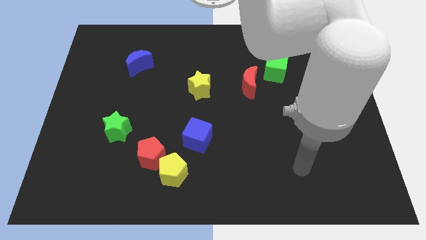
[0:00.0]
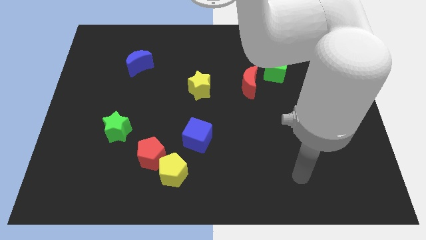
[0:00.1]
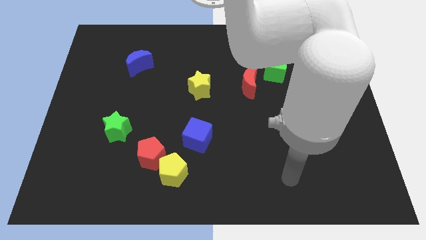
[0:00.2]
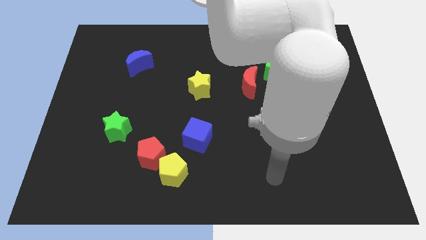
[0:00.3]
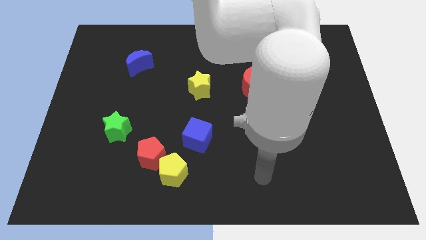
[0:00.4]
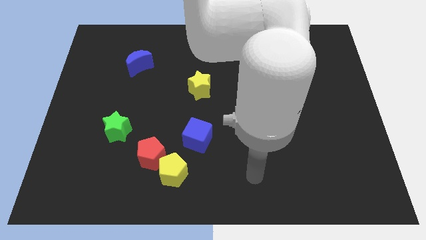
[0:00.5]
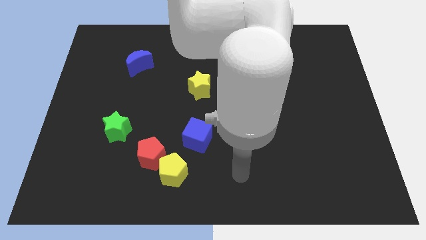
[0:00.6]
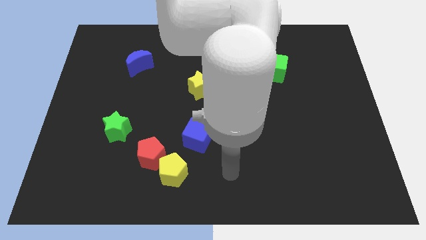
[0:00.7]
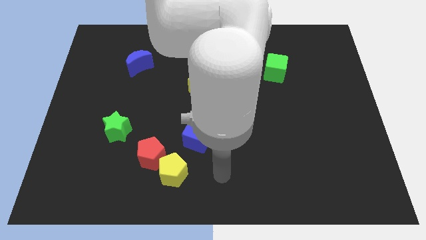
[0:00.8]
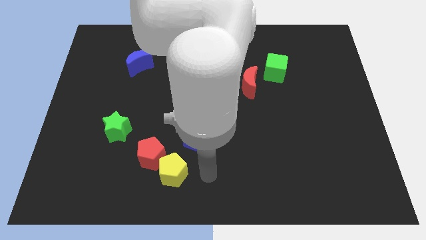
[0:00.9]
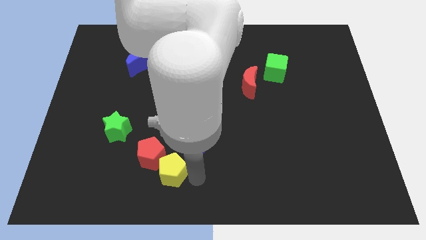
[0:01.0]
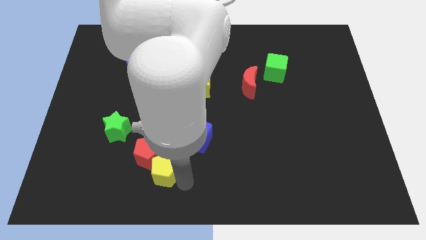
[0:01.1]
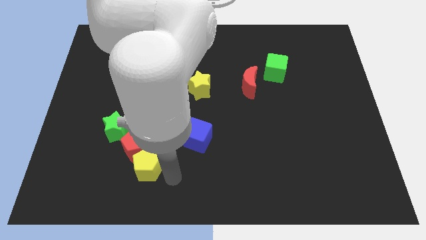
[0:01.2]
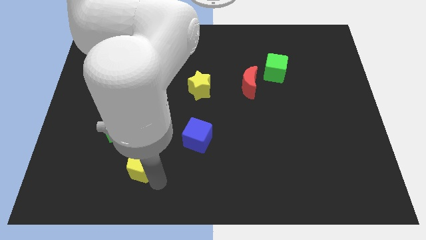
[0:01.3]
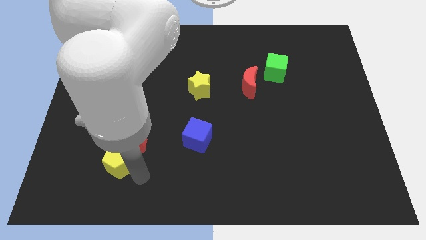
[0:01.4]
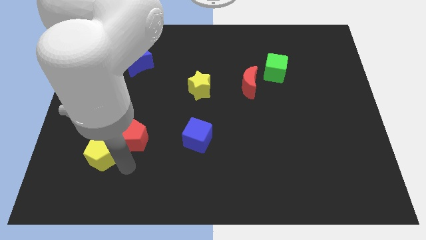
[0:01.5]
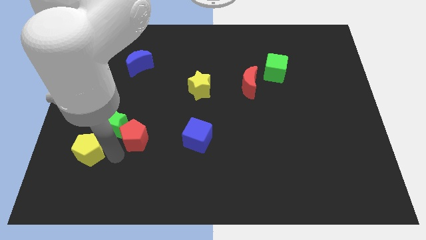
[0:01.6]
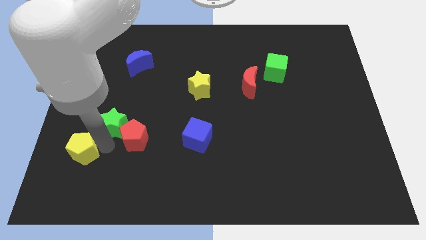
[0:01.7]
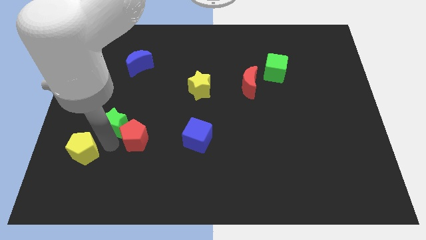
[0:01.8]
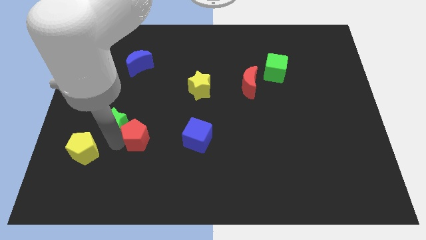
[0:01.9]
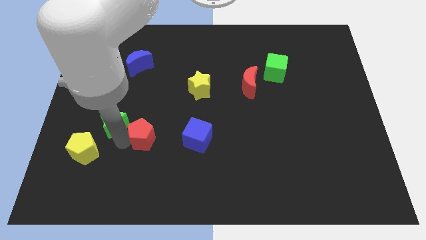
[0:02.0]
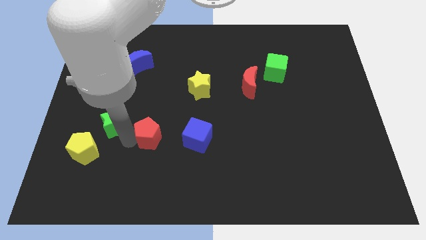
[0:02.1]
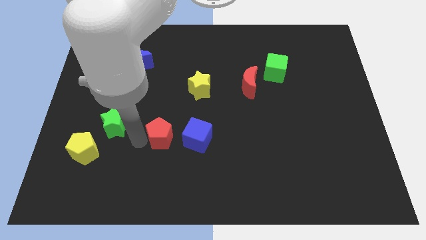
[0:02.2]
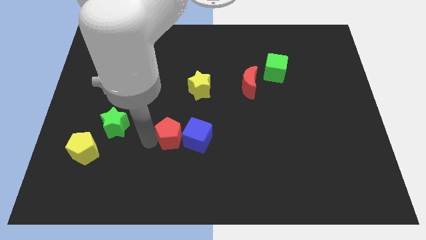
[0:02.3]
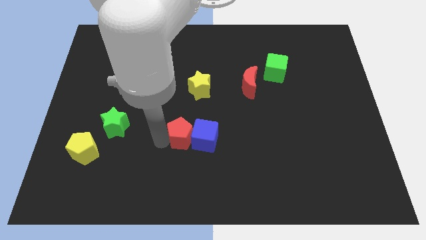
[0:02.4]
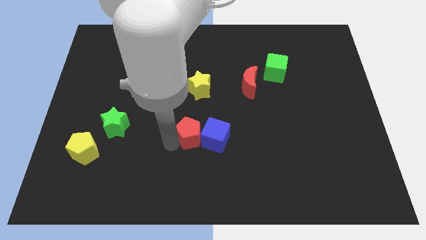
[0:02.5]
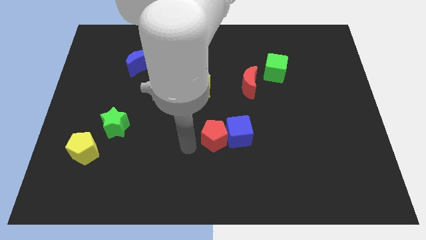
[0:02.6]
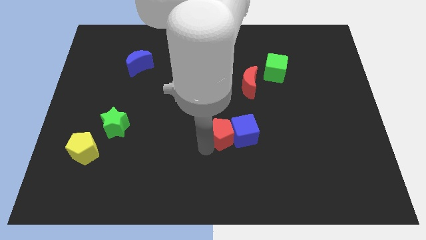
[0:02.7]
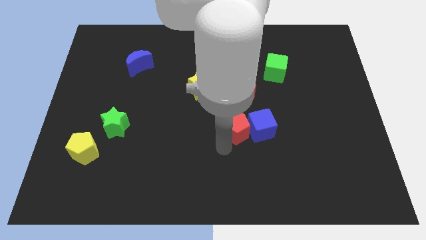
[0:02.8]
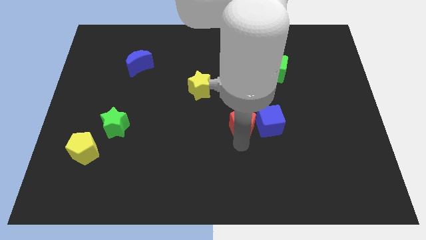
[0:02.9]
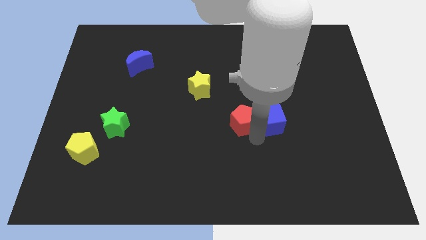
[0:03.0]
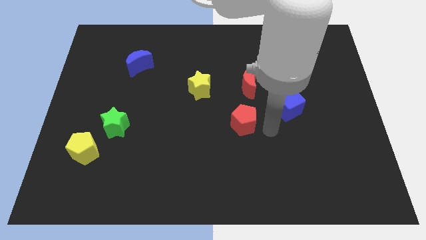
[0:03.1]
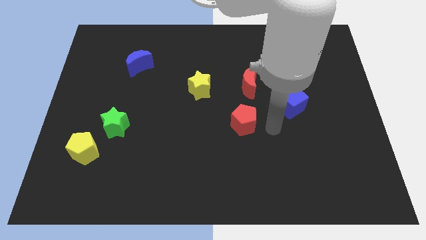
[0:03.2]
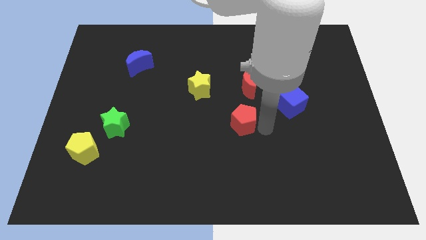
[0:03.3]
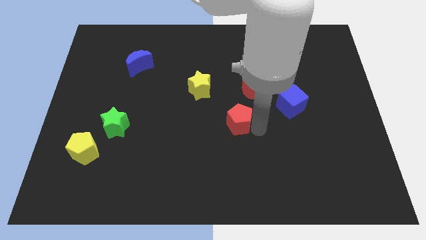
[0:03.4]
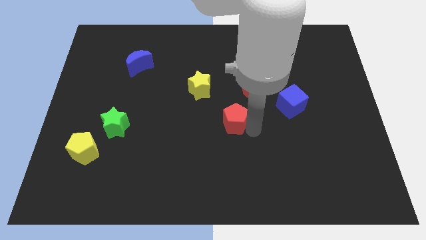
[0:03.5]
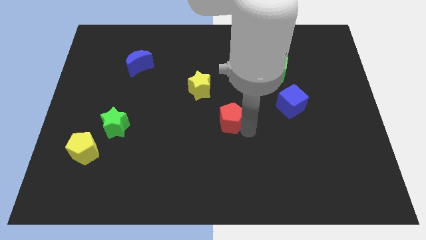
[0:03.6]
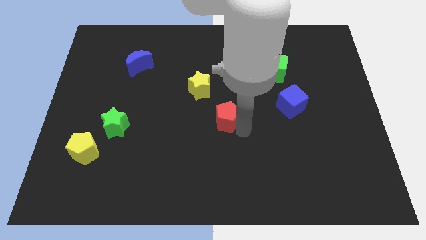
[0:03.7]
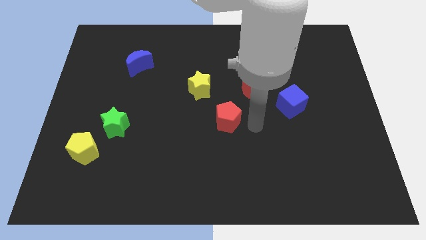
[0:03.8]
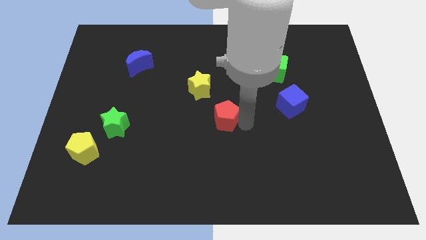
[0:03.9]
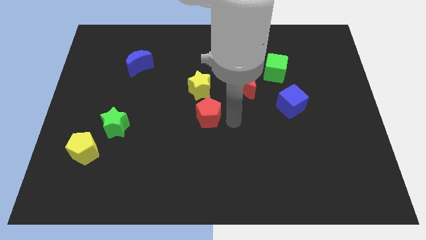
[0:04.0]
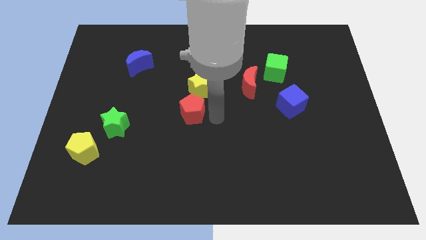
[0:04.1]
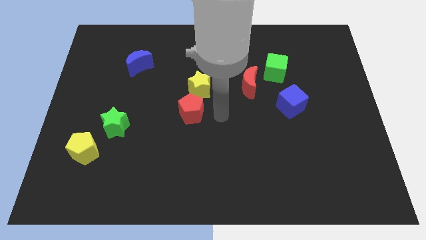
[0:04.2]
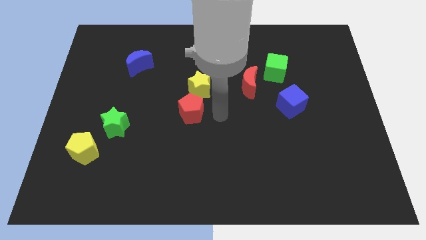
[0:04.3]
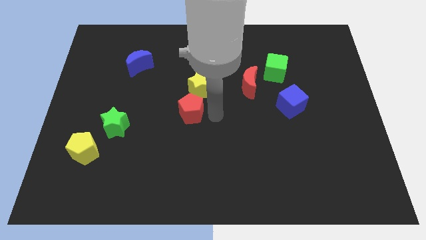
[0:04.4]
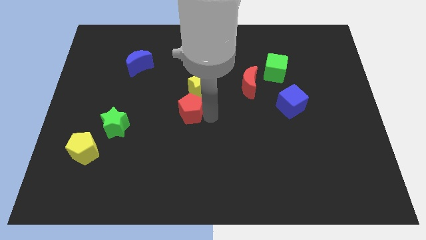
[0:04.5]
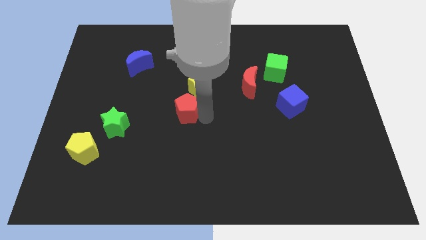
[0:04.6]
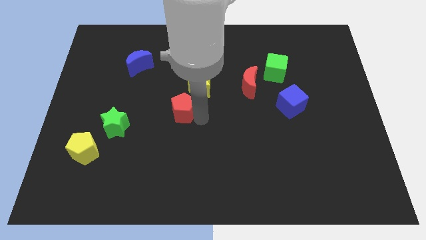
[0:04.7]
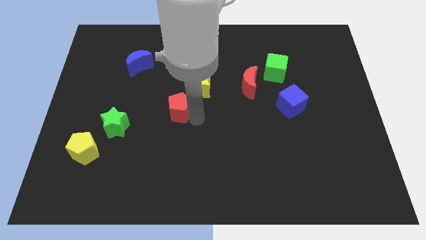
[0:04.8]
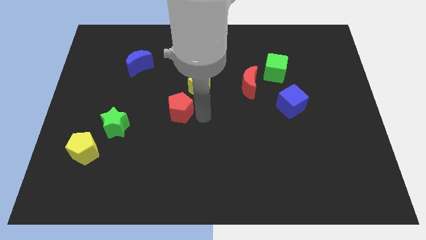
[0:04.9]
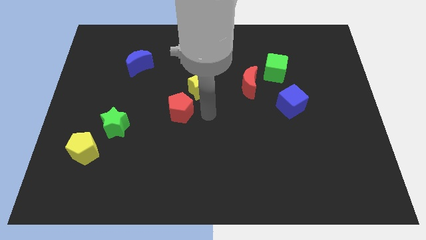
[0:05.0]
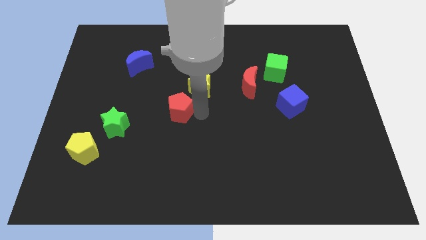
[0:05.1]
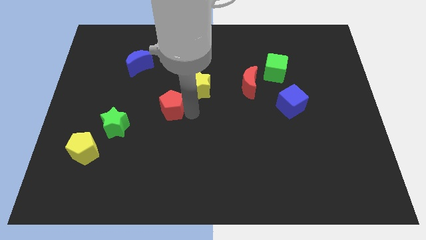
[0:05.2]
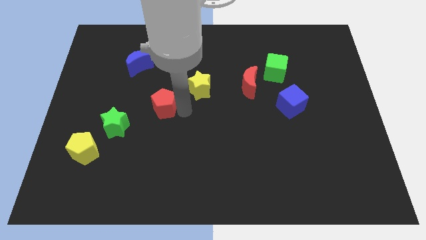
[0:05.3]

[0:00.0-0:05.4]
put the red pentagon to the top right of the green star

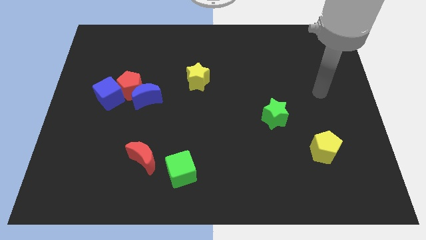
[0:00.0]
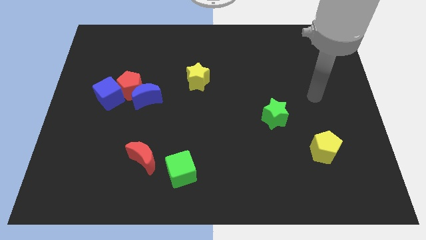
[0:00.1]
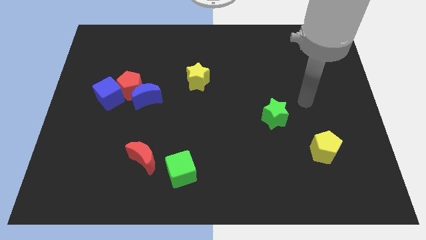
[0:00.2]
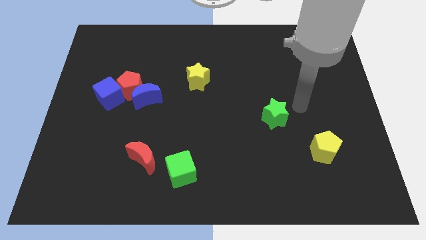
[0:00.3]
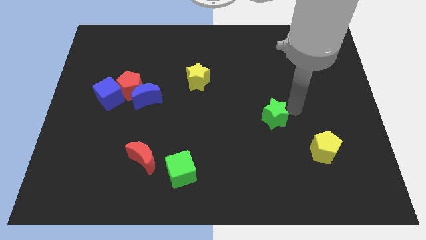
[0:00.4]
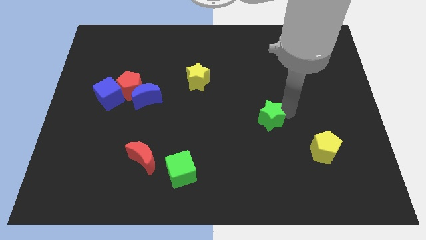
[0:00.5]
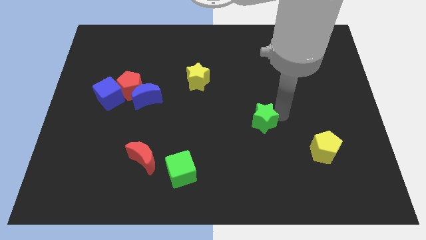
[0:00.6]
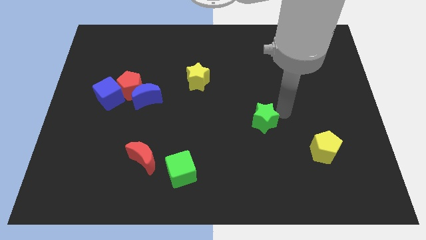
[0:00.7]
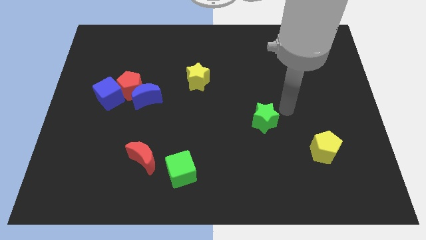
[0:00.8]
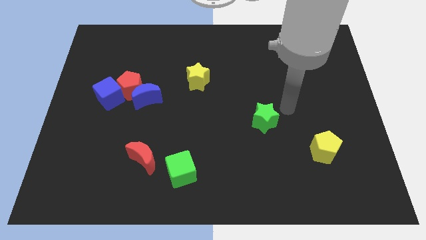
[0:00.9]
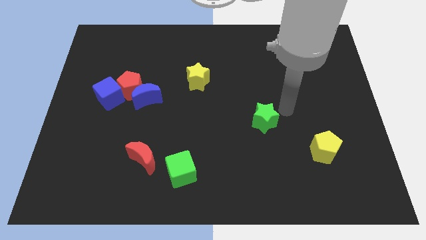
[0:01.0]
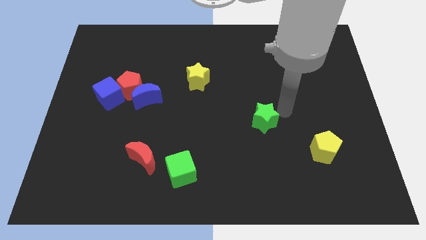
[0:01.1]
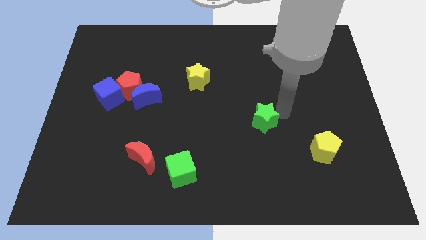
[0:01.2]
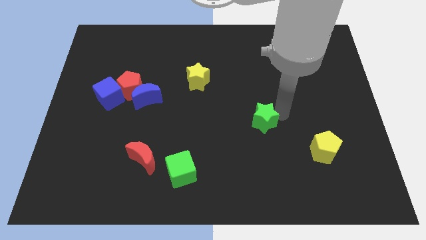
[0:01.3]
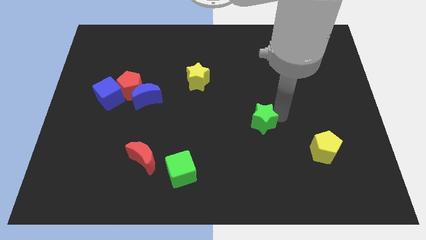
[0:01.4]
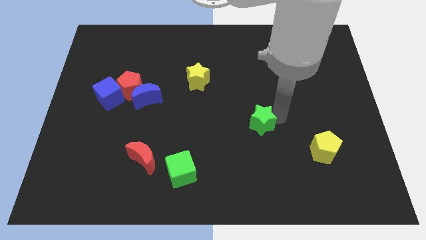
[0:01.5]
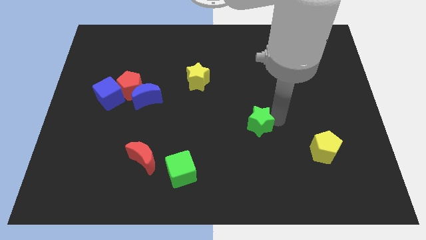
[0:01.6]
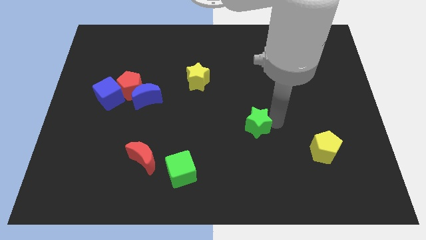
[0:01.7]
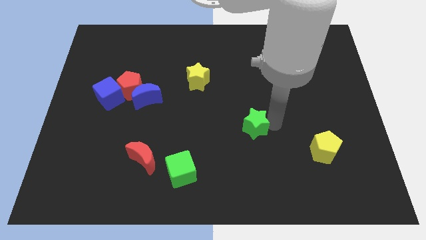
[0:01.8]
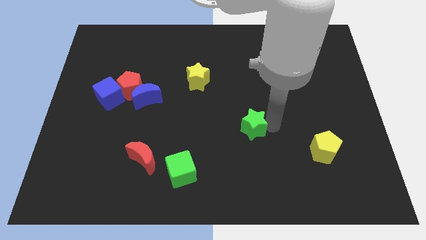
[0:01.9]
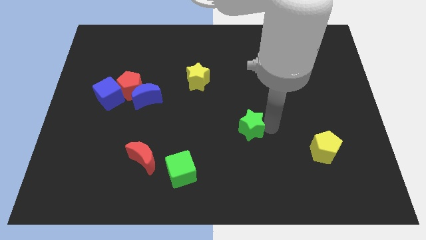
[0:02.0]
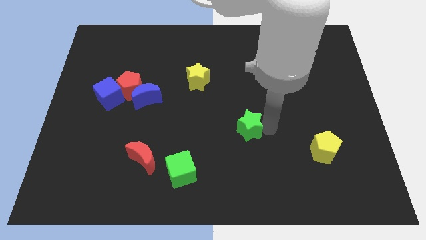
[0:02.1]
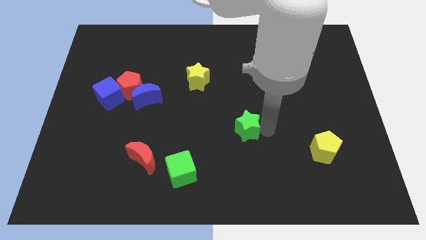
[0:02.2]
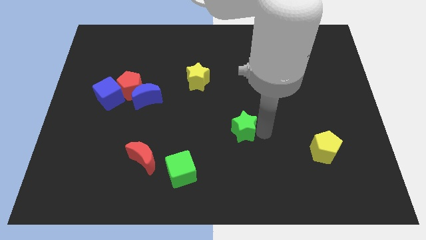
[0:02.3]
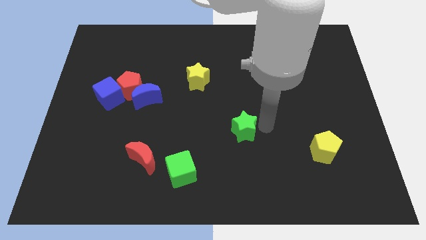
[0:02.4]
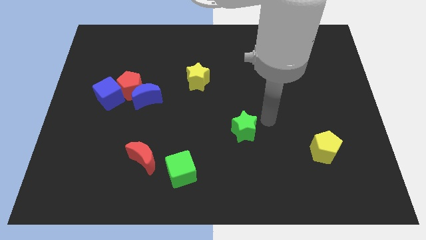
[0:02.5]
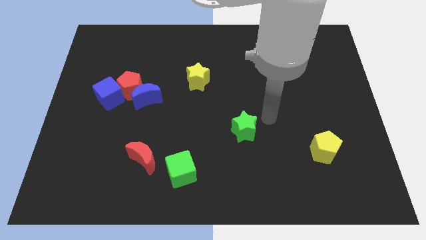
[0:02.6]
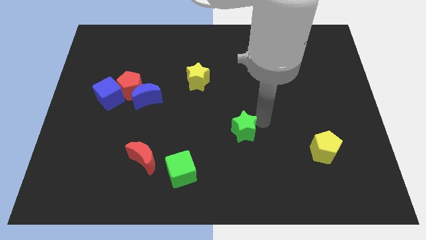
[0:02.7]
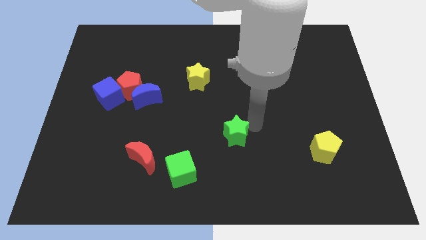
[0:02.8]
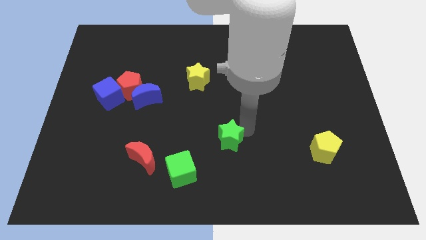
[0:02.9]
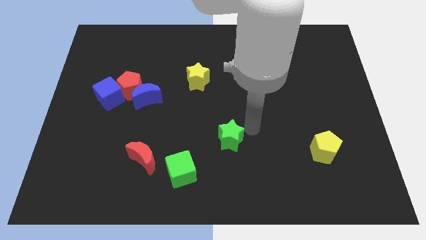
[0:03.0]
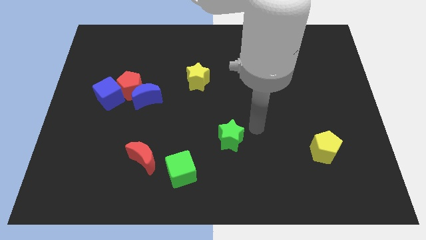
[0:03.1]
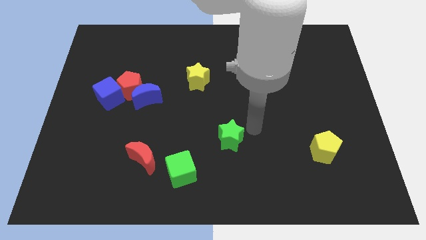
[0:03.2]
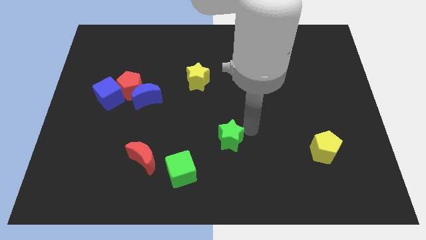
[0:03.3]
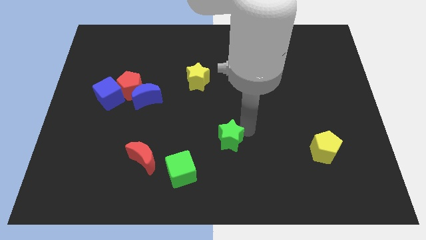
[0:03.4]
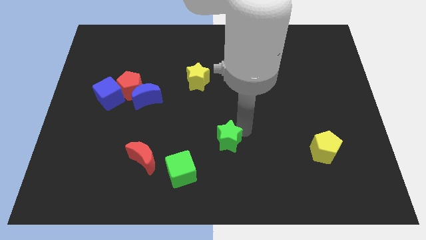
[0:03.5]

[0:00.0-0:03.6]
slide the green star to the top right of the green cube
